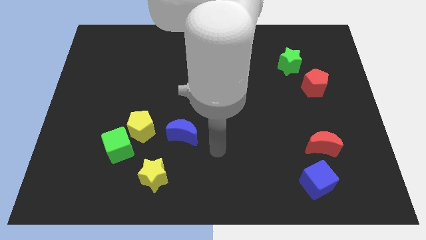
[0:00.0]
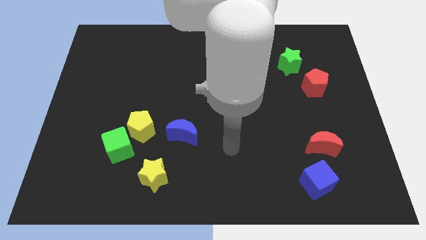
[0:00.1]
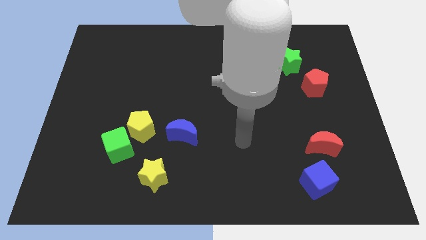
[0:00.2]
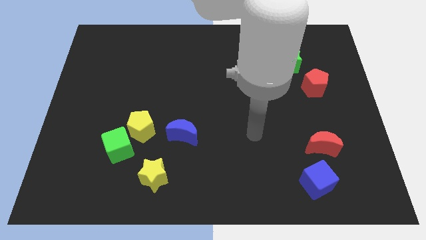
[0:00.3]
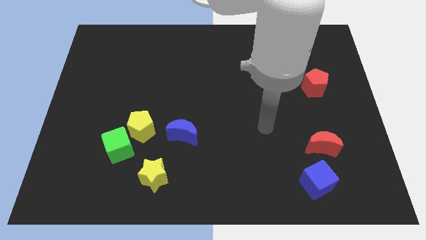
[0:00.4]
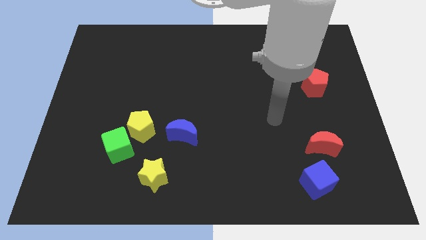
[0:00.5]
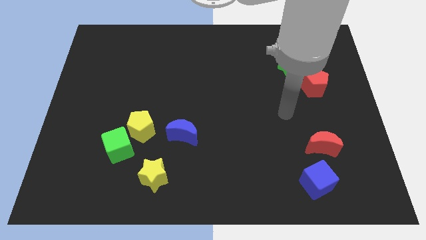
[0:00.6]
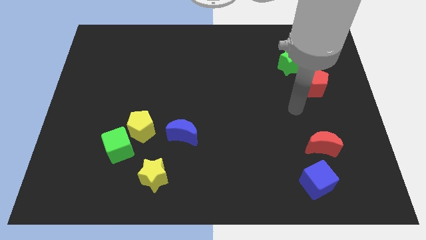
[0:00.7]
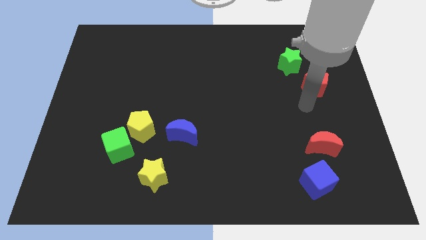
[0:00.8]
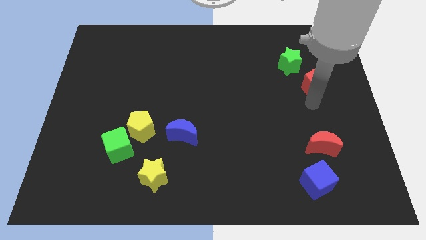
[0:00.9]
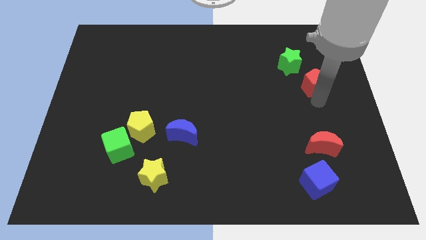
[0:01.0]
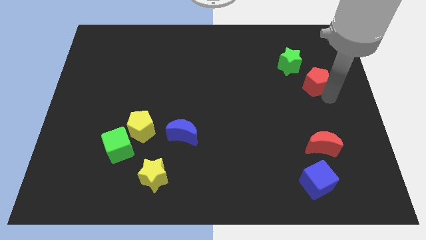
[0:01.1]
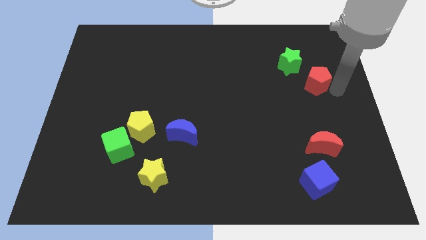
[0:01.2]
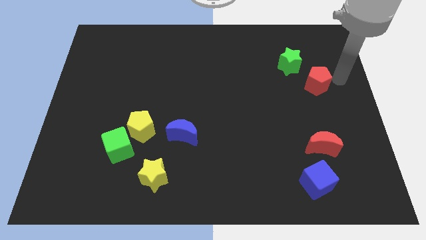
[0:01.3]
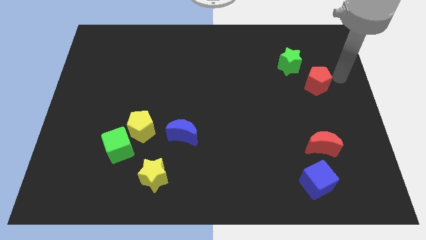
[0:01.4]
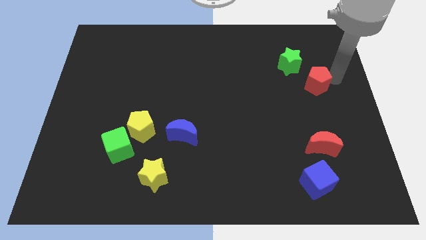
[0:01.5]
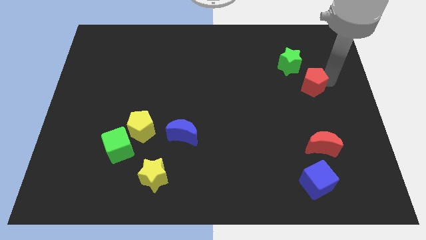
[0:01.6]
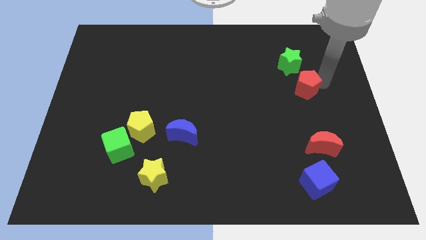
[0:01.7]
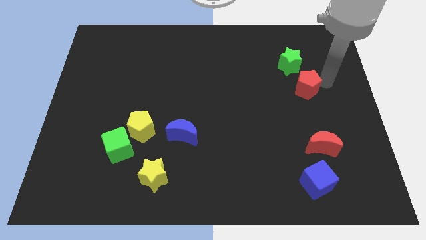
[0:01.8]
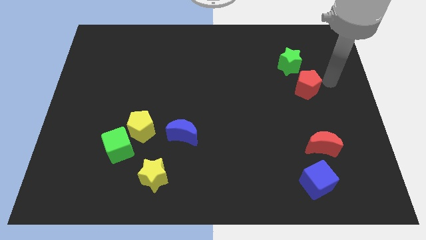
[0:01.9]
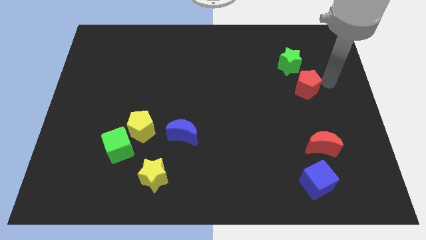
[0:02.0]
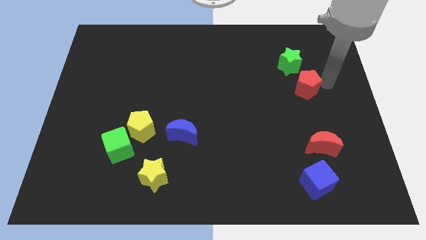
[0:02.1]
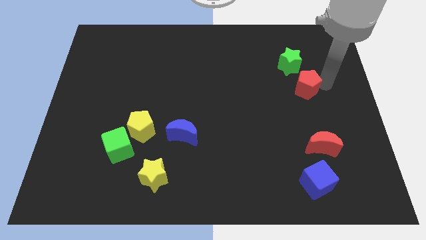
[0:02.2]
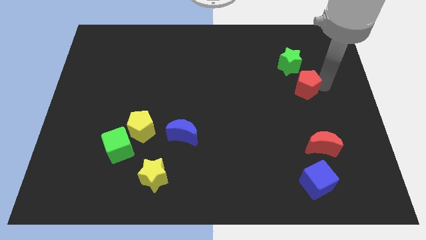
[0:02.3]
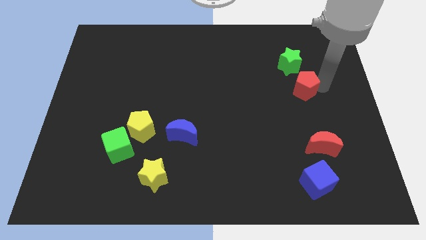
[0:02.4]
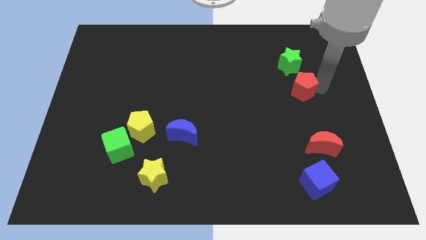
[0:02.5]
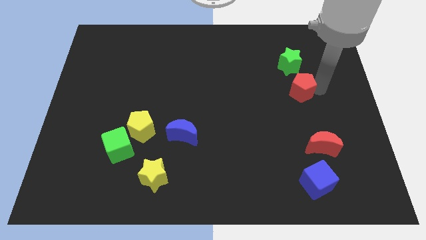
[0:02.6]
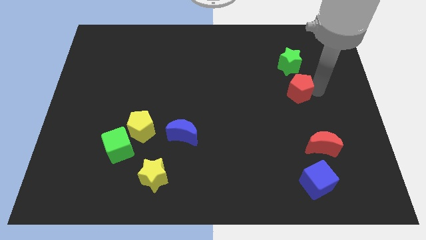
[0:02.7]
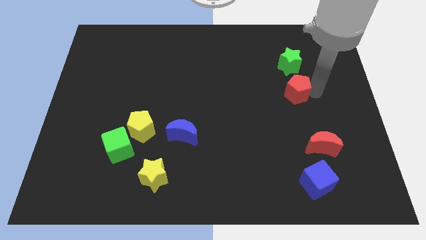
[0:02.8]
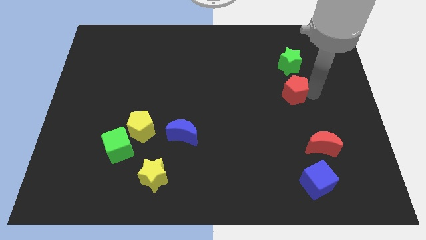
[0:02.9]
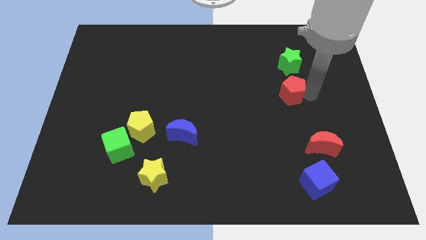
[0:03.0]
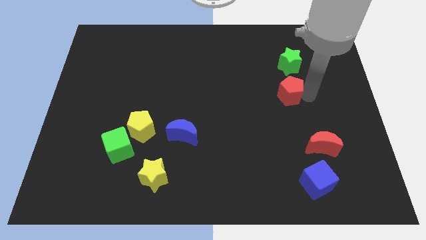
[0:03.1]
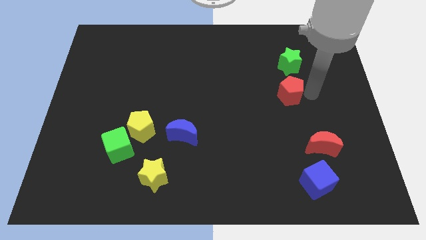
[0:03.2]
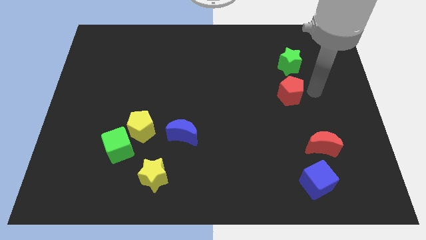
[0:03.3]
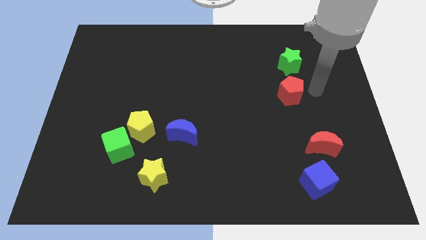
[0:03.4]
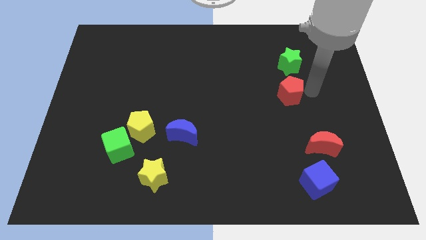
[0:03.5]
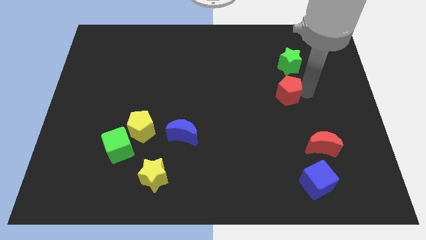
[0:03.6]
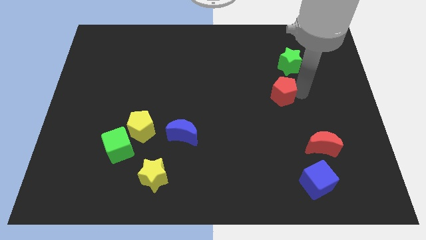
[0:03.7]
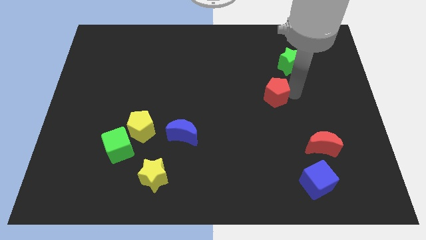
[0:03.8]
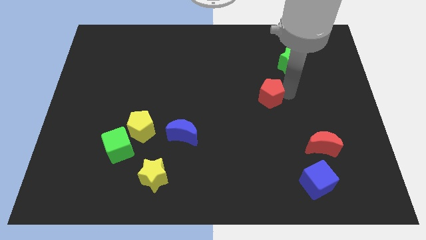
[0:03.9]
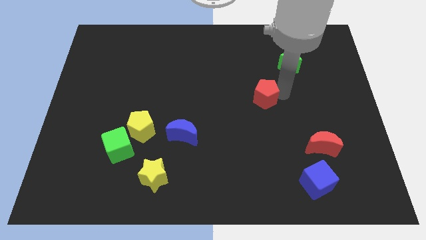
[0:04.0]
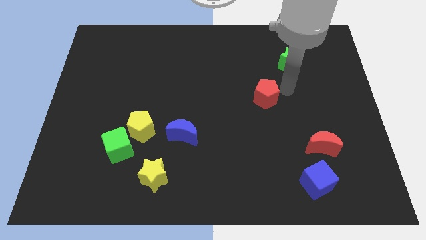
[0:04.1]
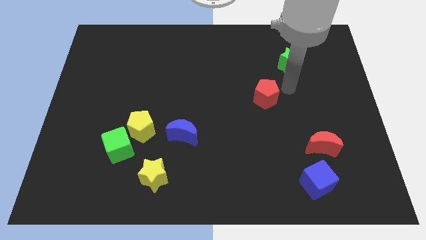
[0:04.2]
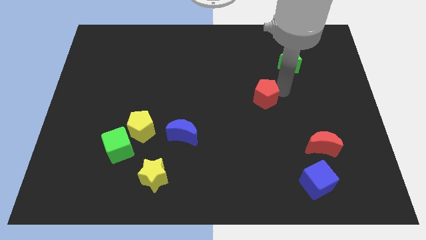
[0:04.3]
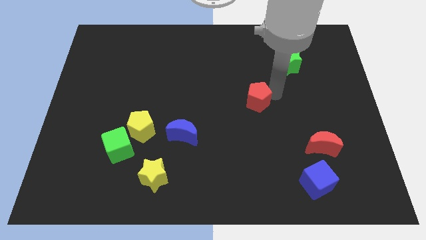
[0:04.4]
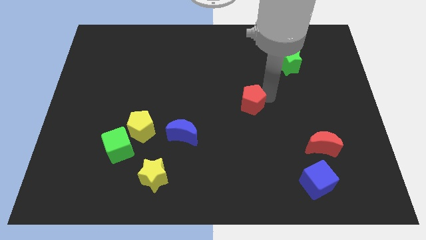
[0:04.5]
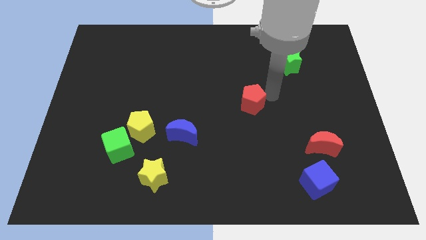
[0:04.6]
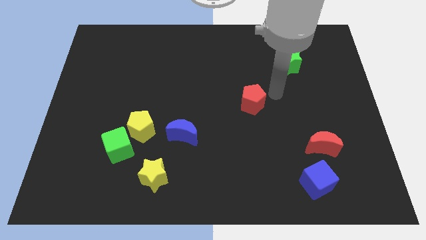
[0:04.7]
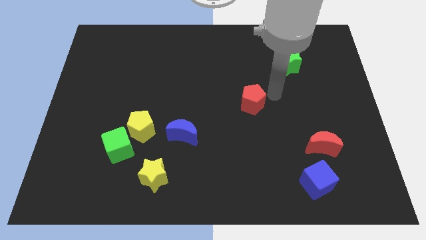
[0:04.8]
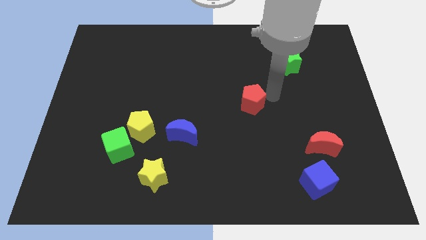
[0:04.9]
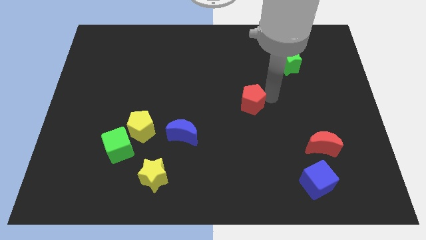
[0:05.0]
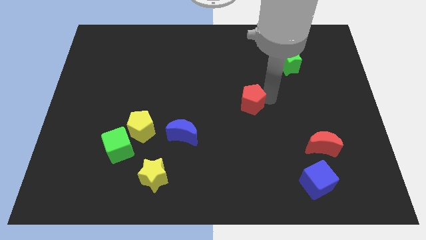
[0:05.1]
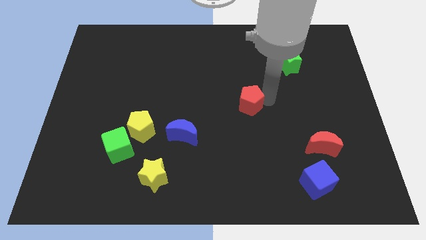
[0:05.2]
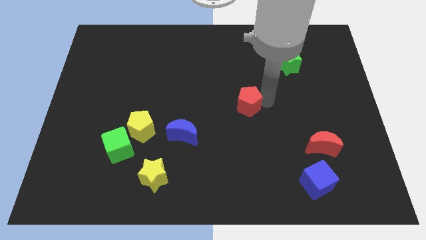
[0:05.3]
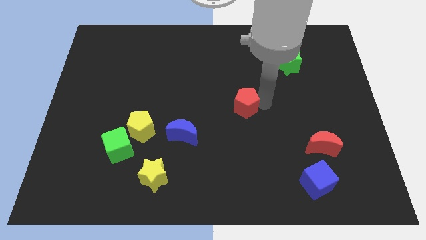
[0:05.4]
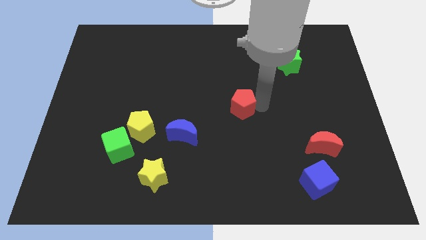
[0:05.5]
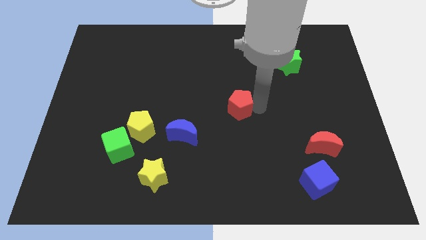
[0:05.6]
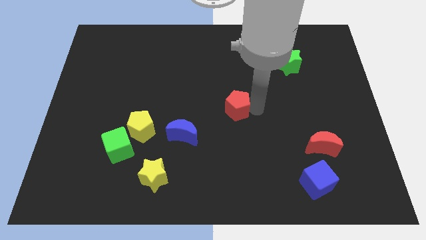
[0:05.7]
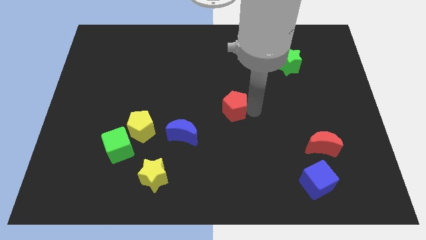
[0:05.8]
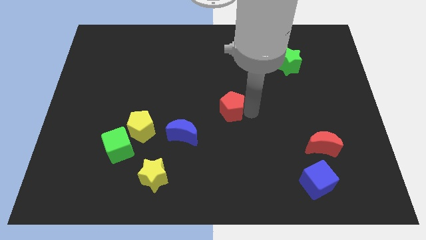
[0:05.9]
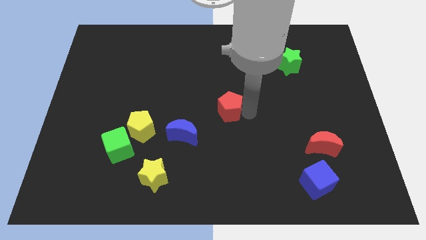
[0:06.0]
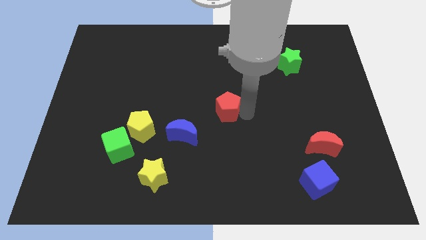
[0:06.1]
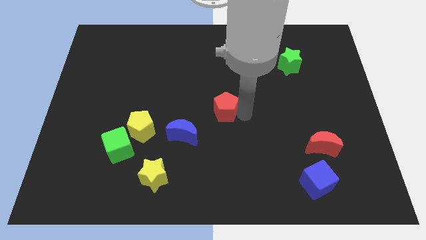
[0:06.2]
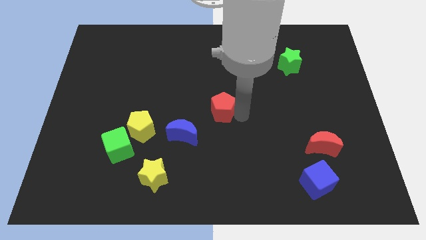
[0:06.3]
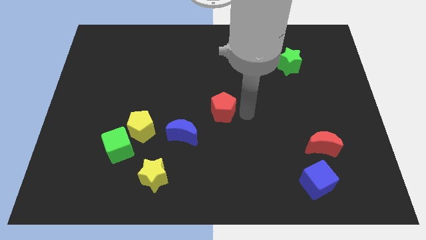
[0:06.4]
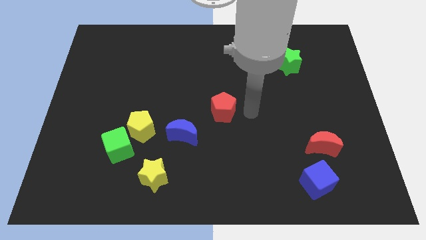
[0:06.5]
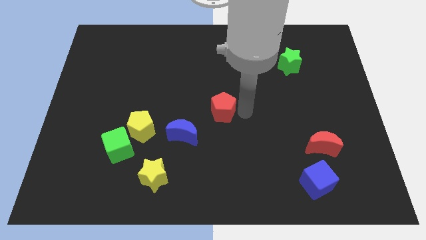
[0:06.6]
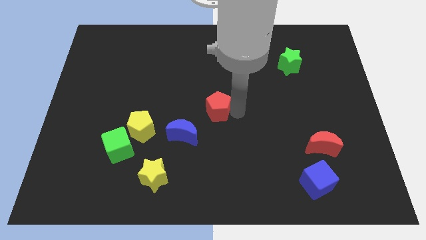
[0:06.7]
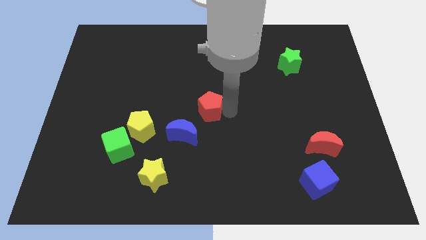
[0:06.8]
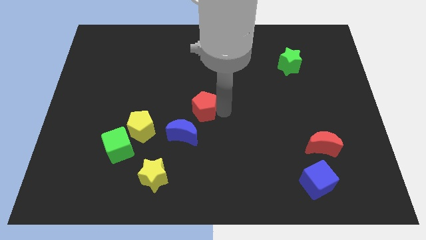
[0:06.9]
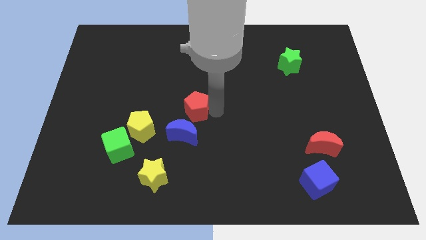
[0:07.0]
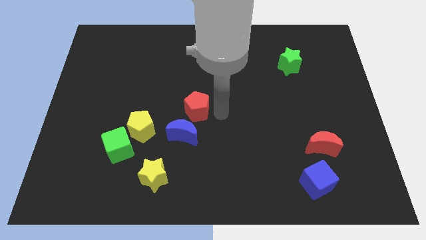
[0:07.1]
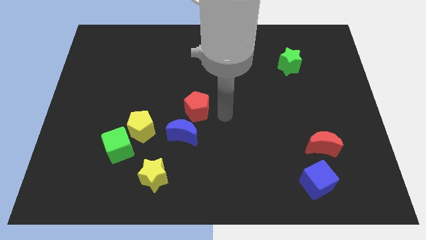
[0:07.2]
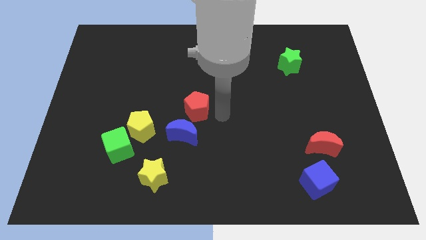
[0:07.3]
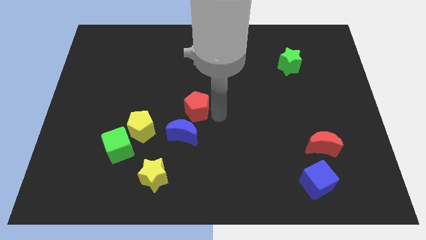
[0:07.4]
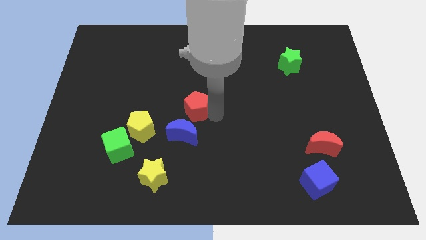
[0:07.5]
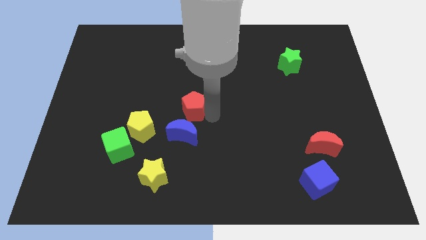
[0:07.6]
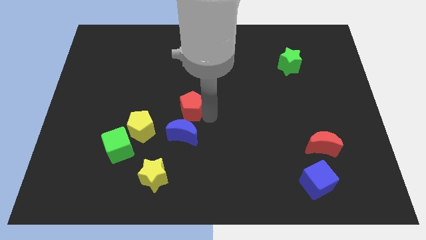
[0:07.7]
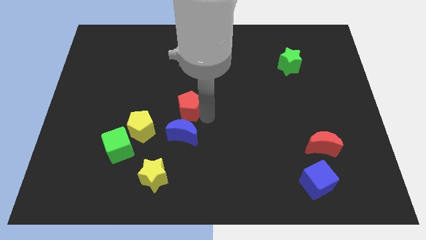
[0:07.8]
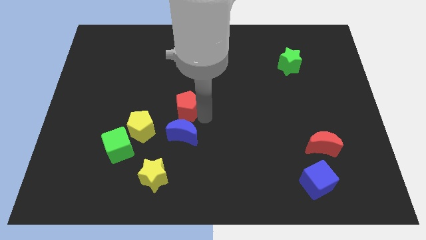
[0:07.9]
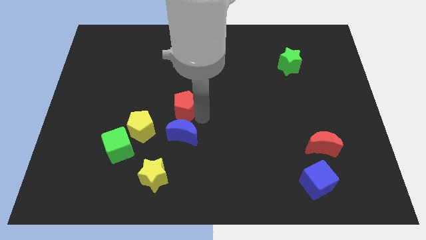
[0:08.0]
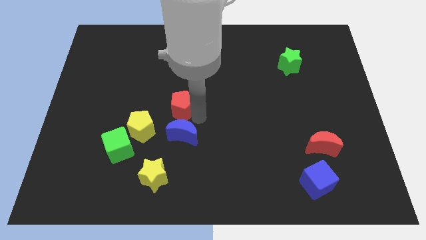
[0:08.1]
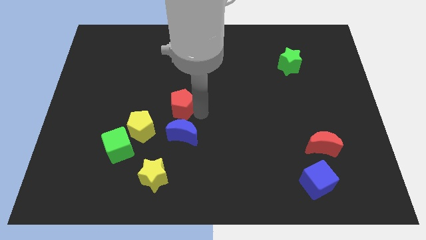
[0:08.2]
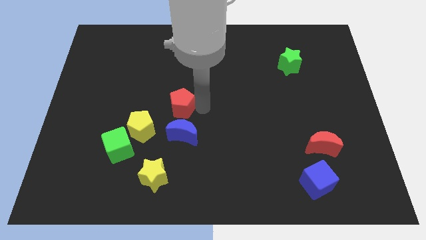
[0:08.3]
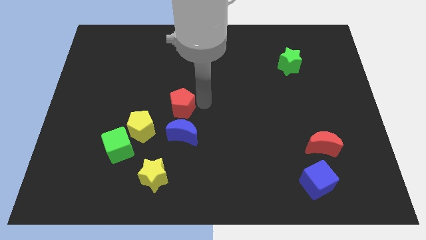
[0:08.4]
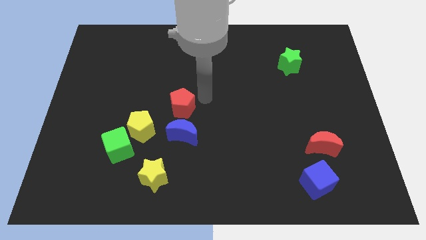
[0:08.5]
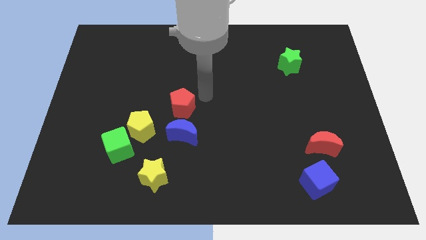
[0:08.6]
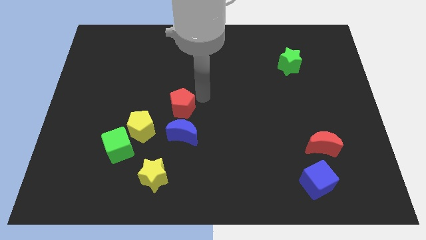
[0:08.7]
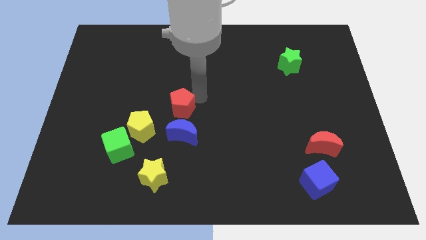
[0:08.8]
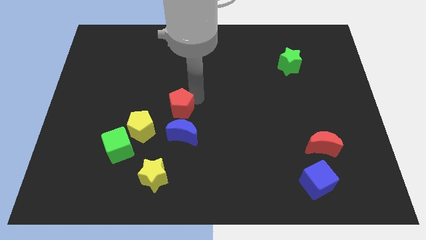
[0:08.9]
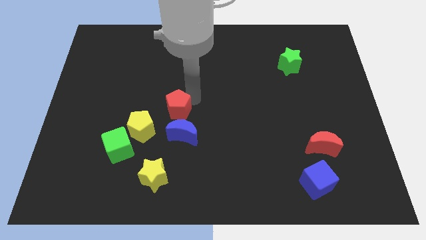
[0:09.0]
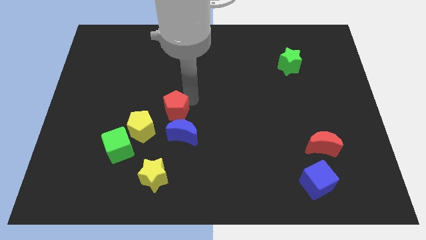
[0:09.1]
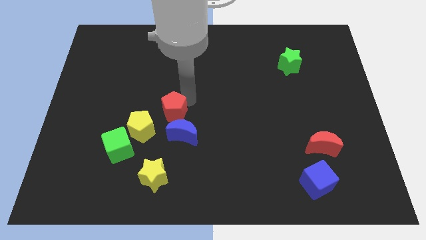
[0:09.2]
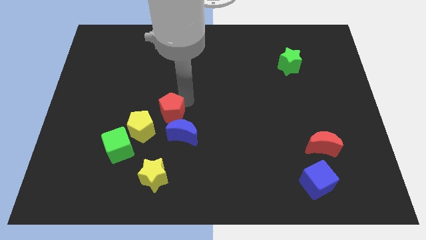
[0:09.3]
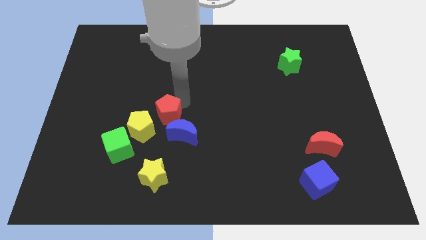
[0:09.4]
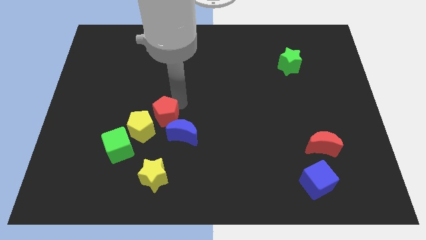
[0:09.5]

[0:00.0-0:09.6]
put the red pentagon towards the yellow pentagon
